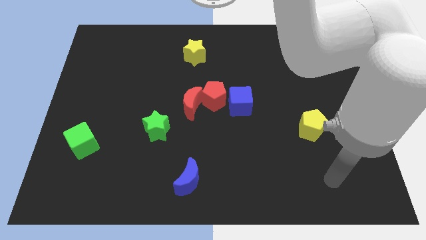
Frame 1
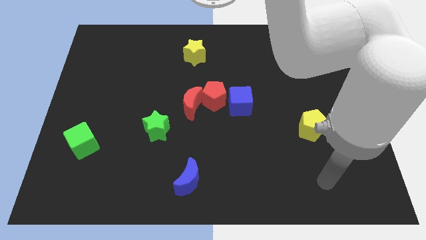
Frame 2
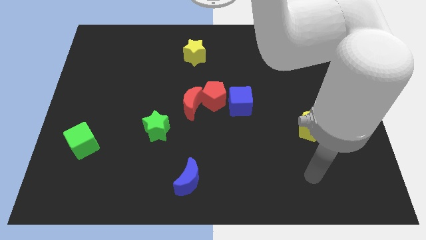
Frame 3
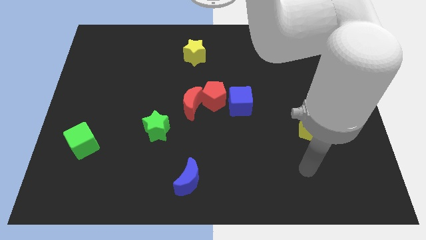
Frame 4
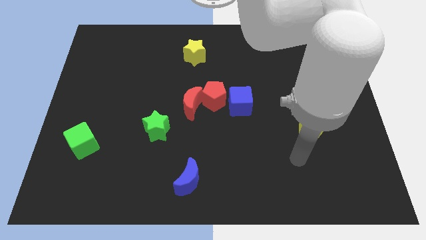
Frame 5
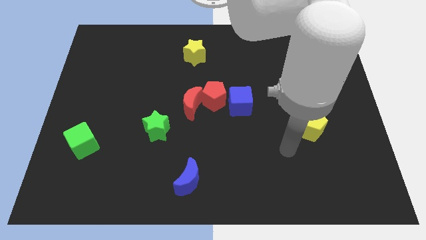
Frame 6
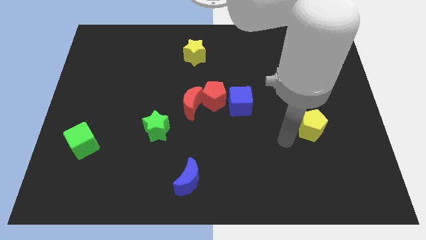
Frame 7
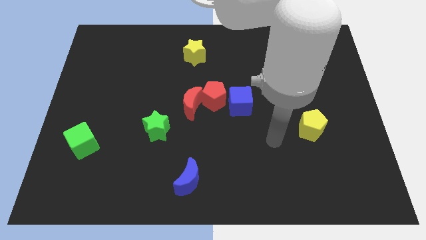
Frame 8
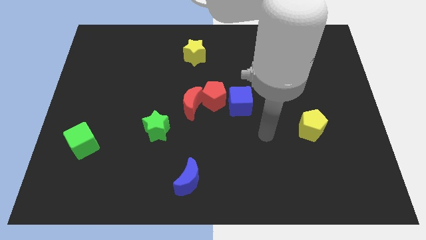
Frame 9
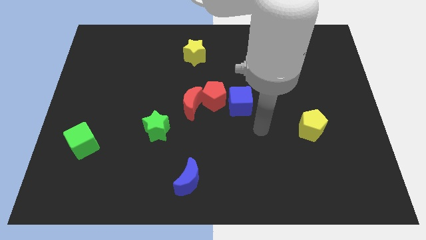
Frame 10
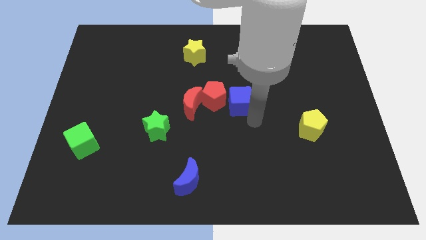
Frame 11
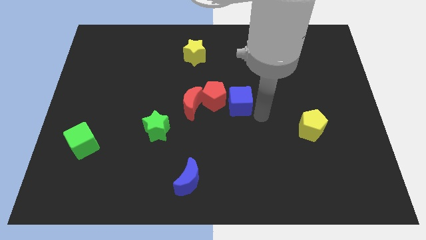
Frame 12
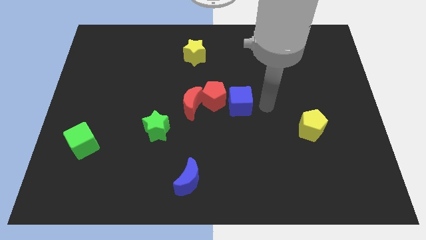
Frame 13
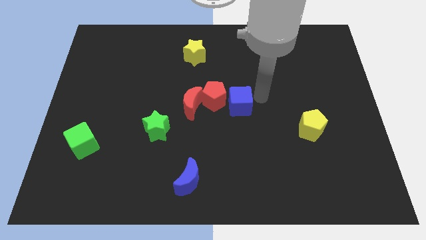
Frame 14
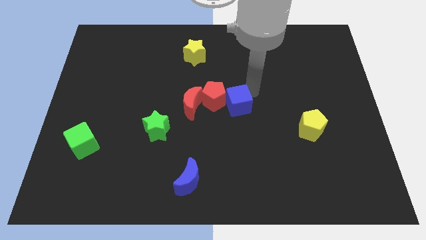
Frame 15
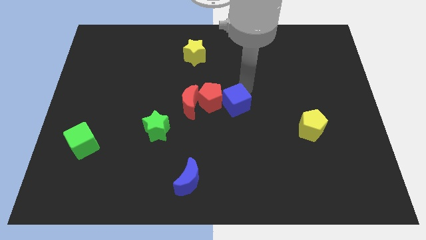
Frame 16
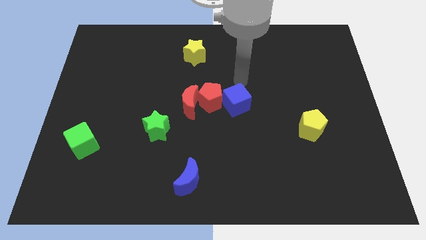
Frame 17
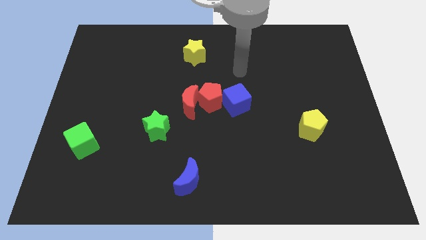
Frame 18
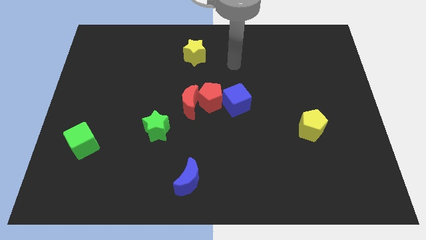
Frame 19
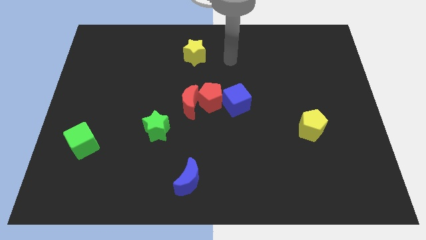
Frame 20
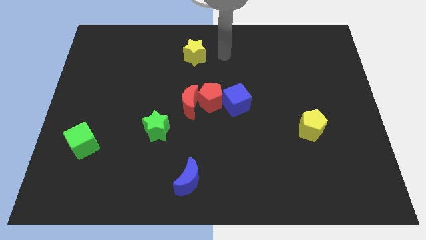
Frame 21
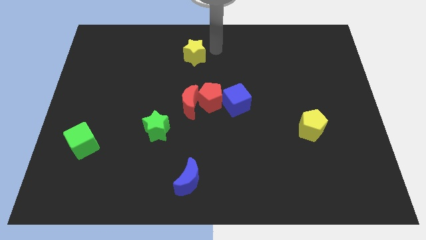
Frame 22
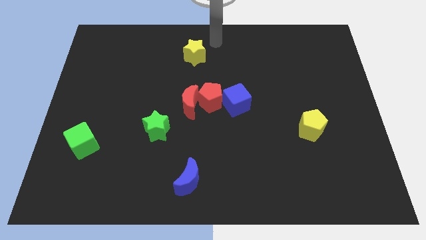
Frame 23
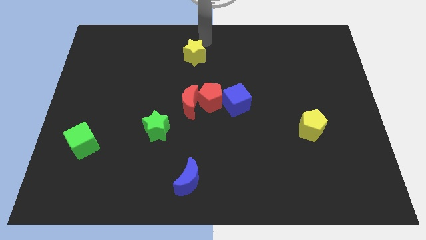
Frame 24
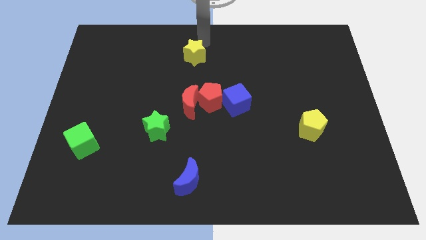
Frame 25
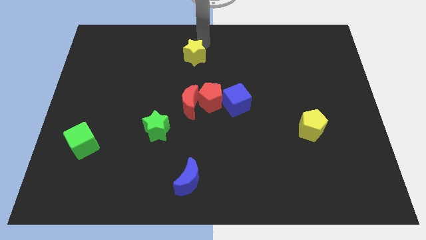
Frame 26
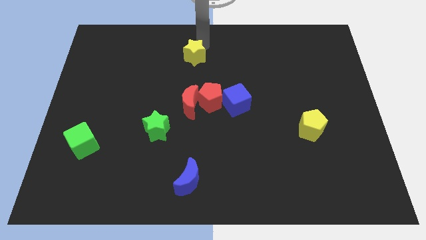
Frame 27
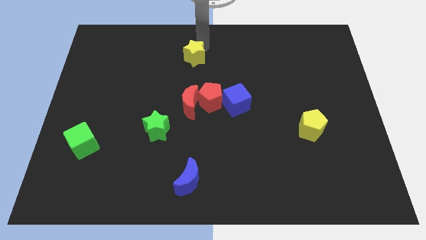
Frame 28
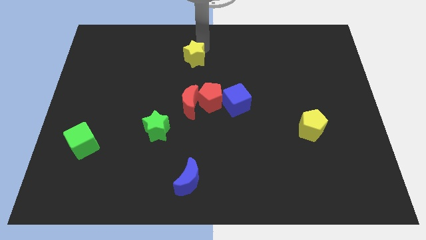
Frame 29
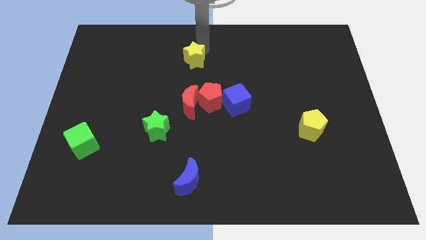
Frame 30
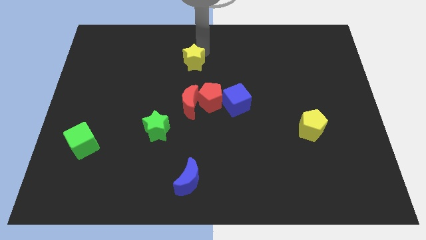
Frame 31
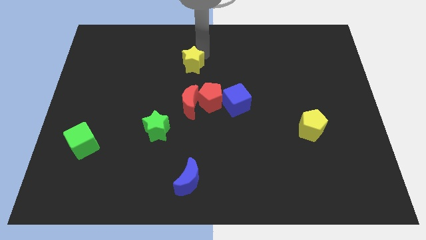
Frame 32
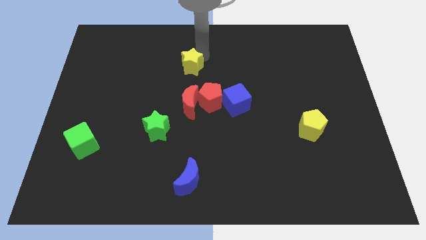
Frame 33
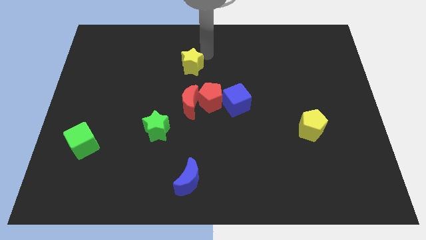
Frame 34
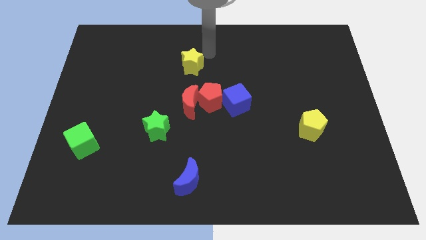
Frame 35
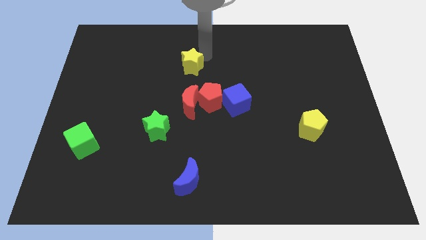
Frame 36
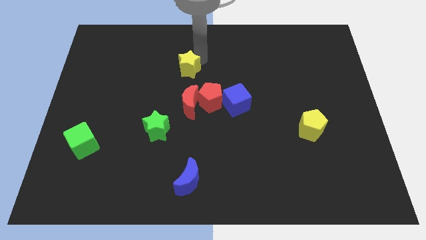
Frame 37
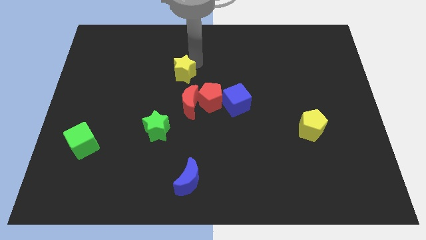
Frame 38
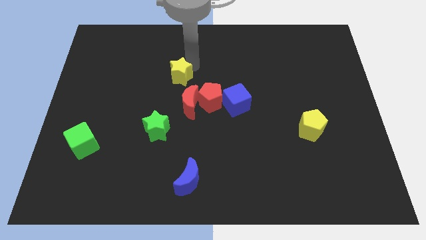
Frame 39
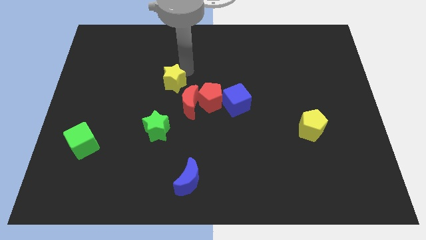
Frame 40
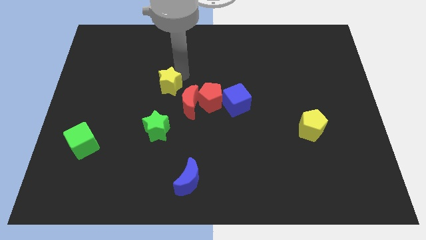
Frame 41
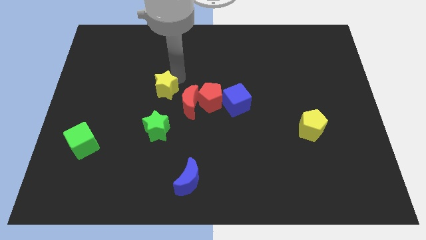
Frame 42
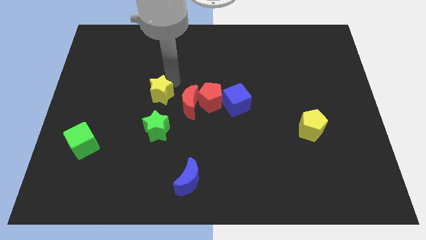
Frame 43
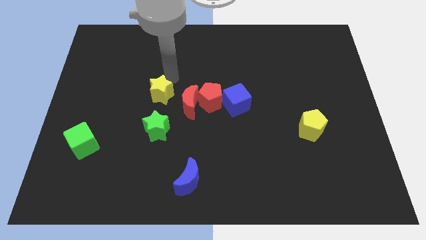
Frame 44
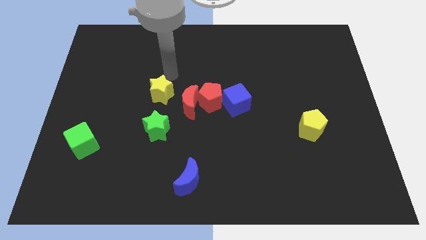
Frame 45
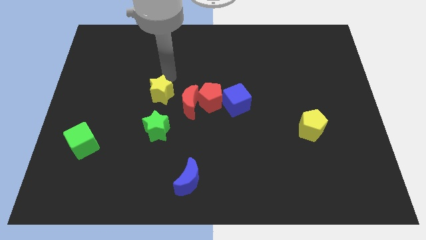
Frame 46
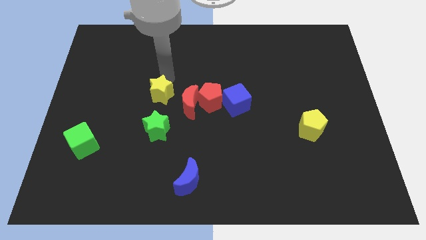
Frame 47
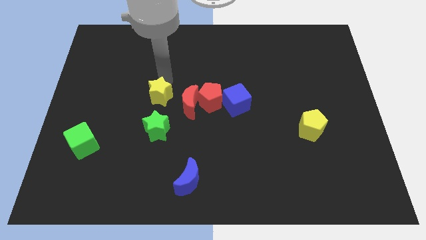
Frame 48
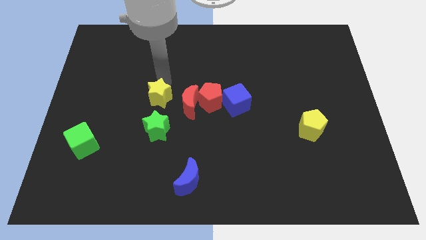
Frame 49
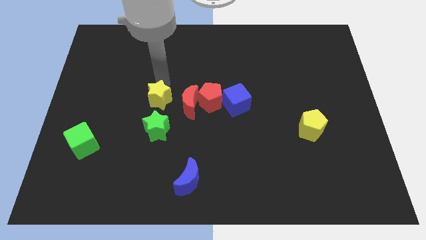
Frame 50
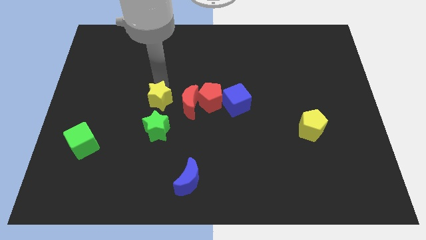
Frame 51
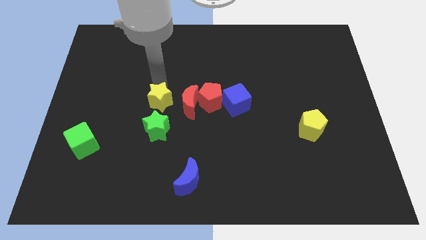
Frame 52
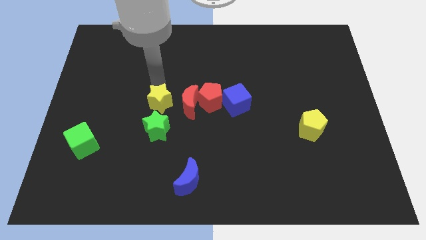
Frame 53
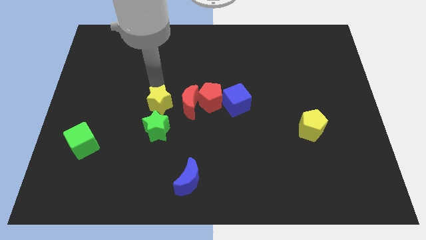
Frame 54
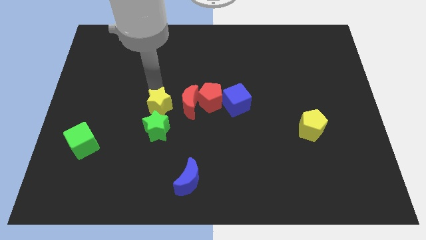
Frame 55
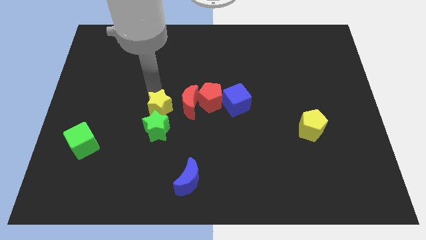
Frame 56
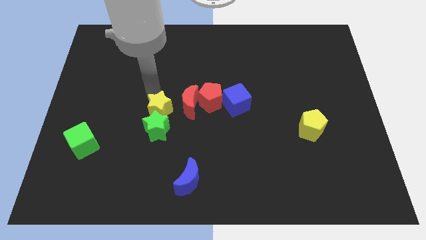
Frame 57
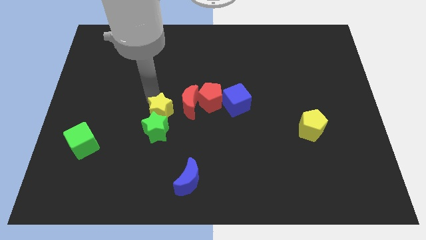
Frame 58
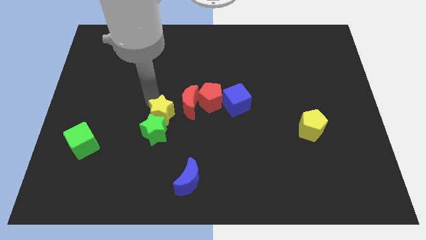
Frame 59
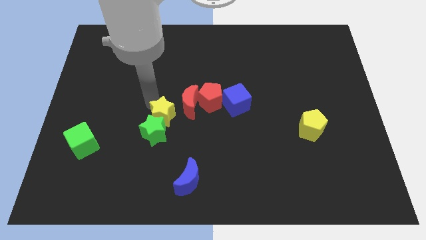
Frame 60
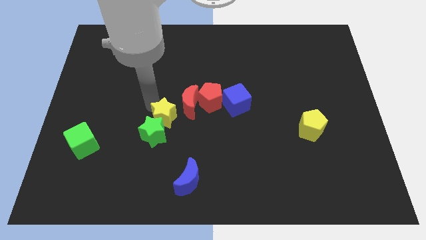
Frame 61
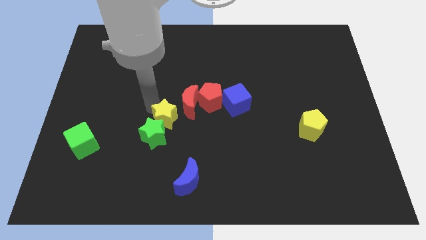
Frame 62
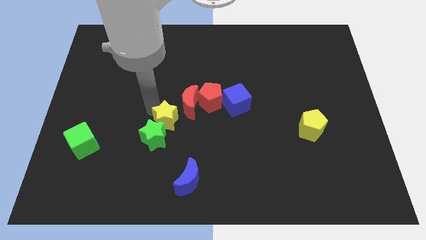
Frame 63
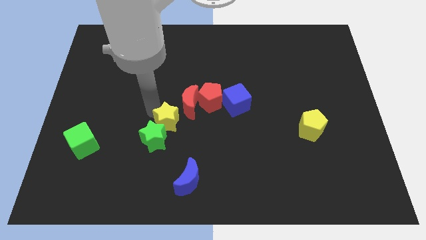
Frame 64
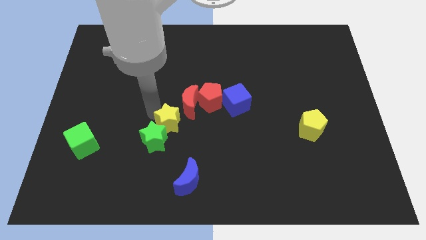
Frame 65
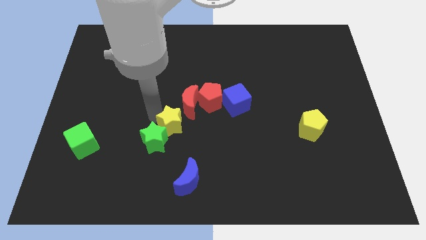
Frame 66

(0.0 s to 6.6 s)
slide the yellow star right of the green star

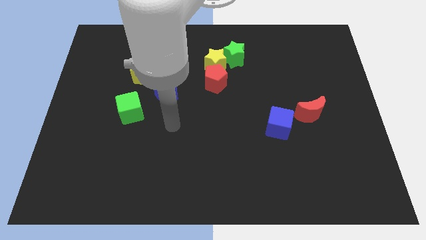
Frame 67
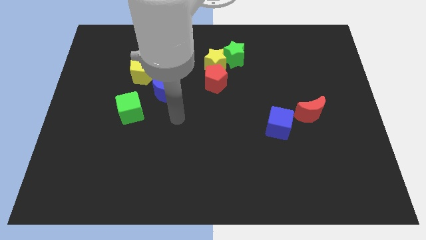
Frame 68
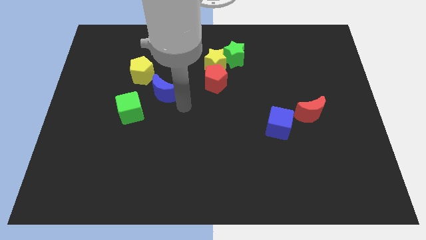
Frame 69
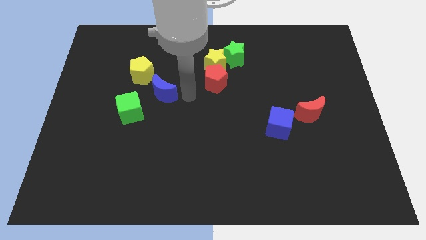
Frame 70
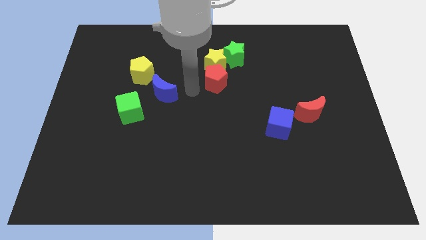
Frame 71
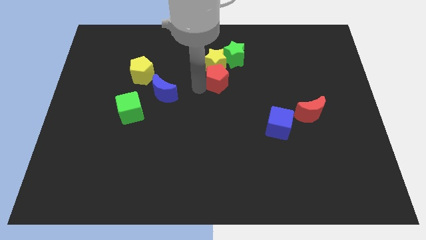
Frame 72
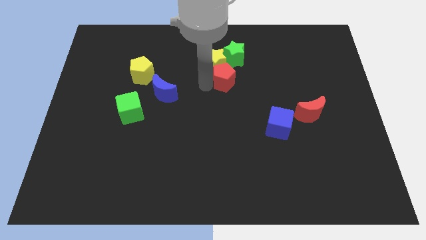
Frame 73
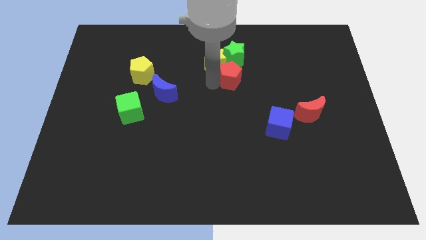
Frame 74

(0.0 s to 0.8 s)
push the red pentagon to the right side of the yellow star
